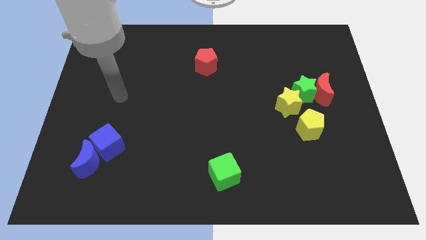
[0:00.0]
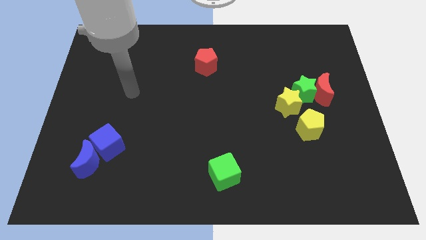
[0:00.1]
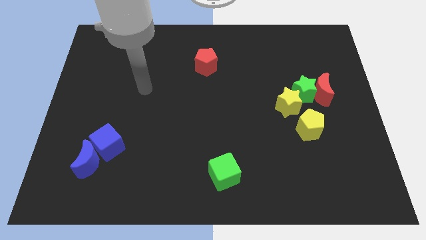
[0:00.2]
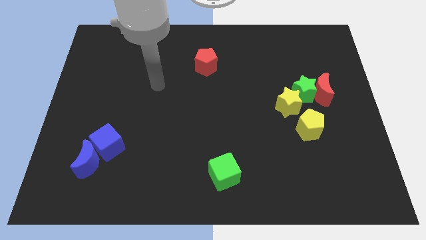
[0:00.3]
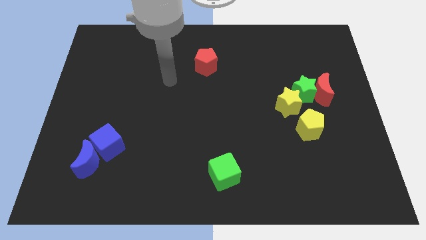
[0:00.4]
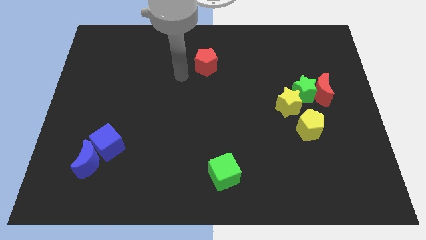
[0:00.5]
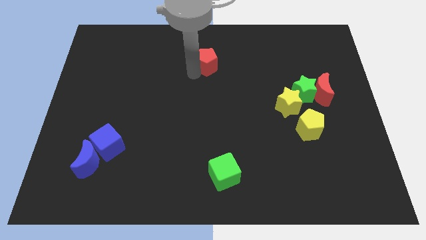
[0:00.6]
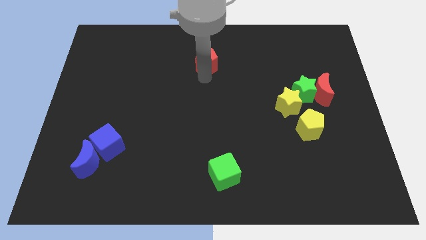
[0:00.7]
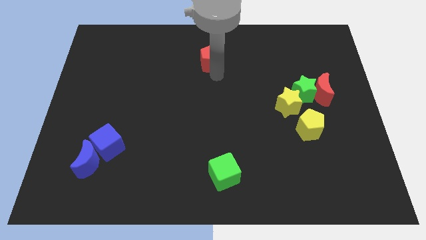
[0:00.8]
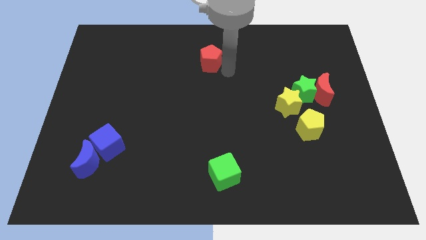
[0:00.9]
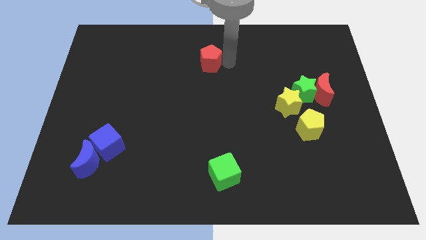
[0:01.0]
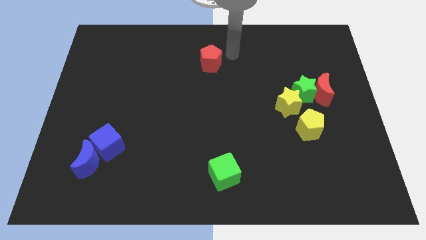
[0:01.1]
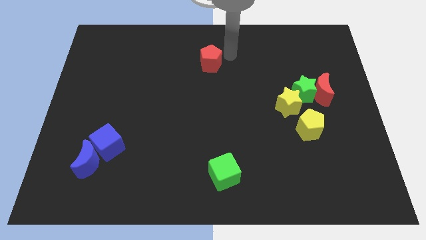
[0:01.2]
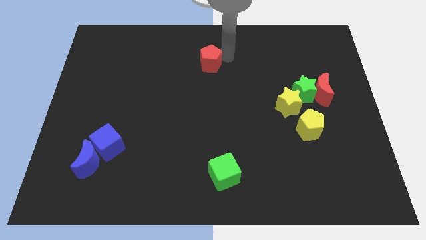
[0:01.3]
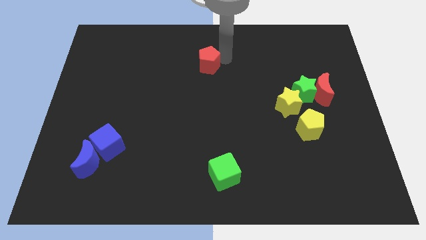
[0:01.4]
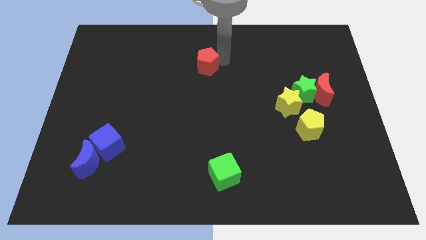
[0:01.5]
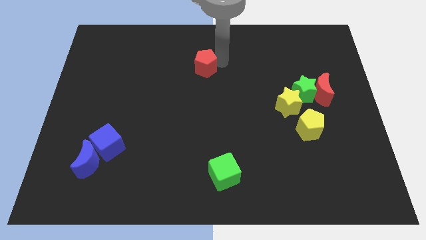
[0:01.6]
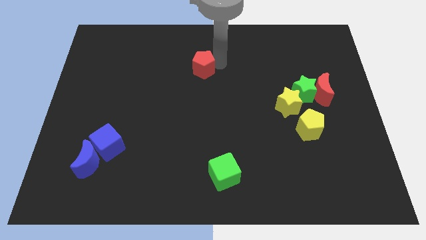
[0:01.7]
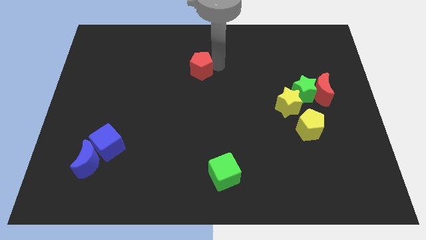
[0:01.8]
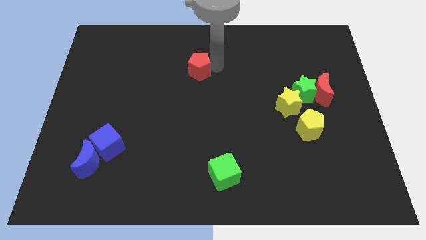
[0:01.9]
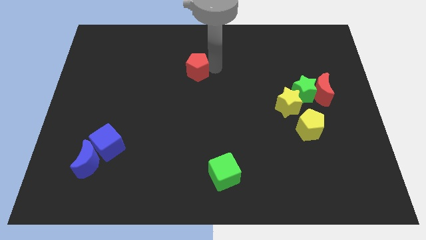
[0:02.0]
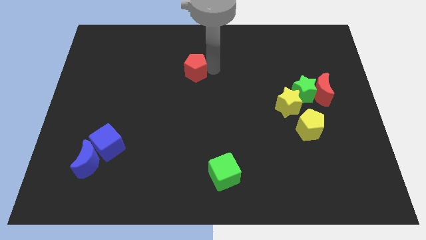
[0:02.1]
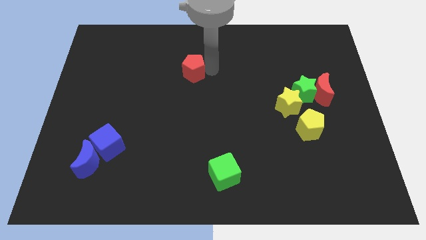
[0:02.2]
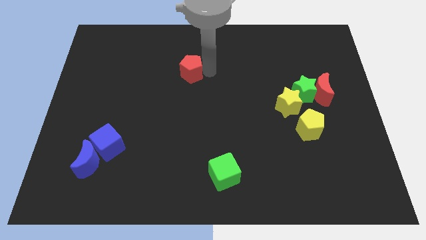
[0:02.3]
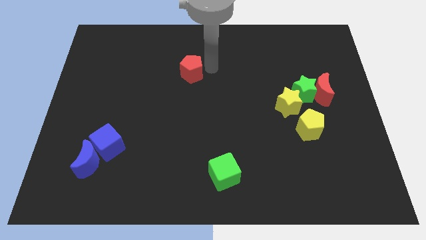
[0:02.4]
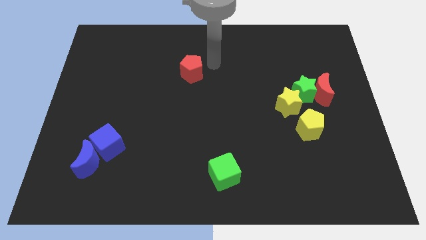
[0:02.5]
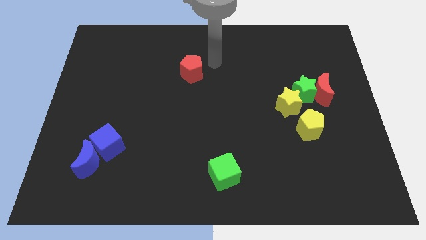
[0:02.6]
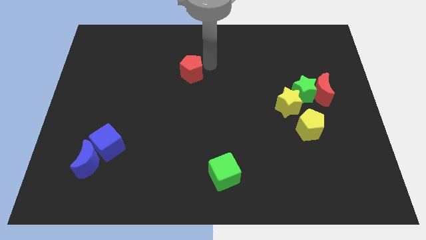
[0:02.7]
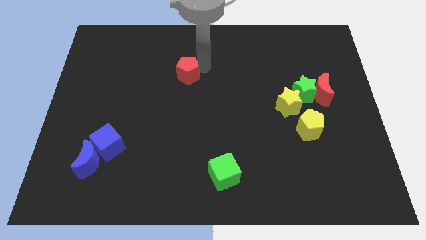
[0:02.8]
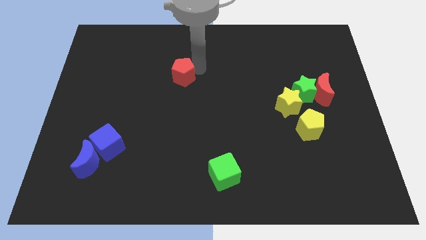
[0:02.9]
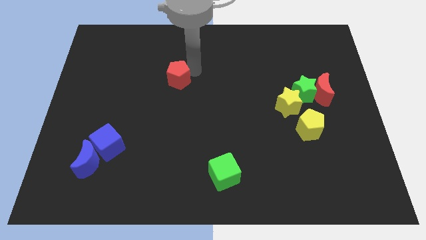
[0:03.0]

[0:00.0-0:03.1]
slightly move the red pentagon downwards and to the left diagonally

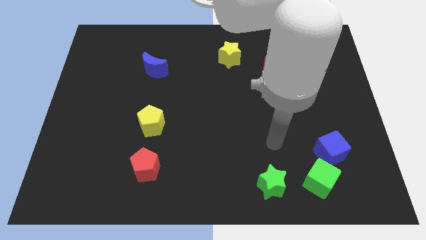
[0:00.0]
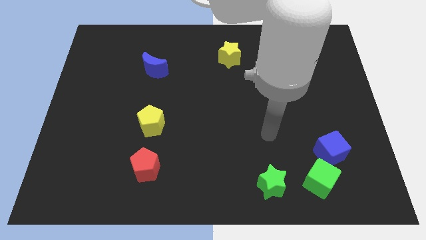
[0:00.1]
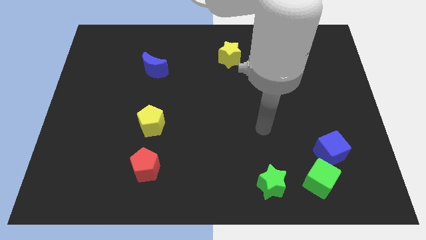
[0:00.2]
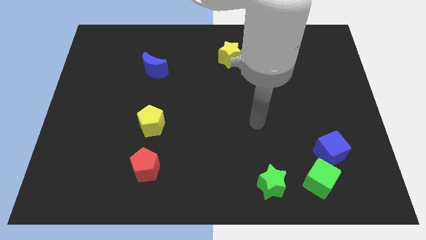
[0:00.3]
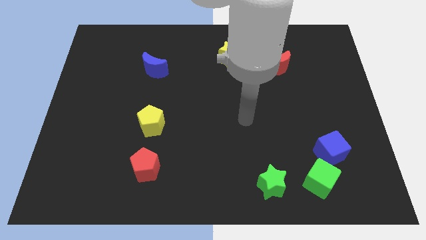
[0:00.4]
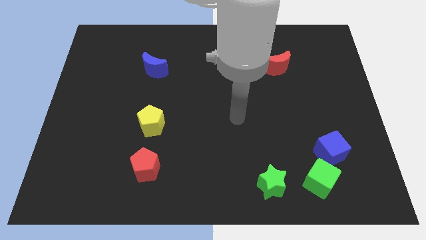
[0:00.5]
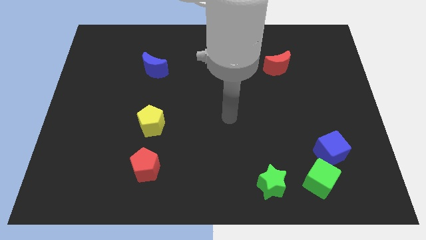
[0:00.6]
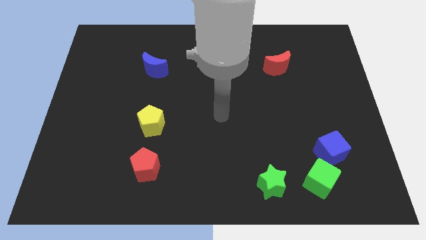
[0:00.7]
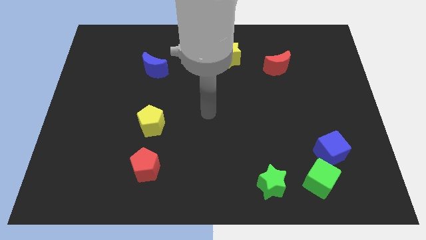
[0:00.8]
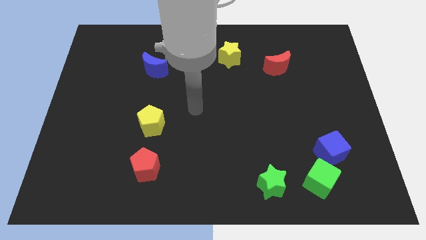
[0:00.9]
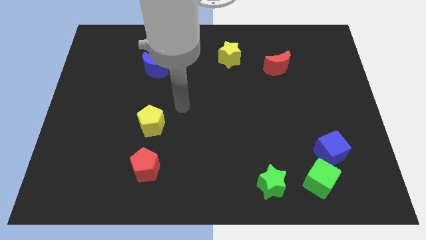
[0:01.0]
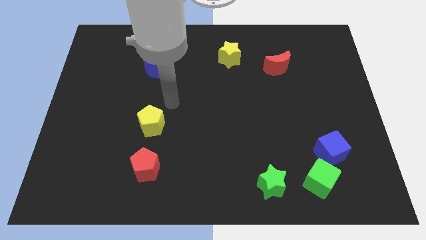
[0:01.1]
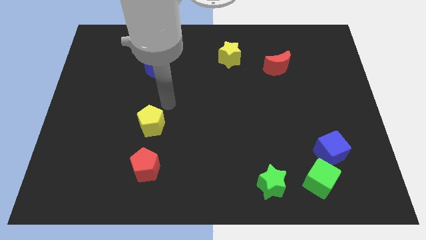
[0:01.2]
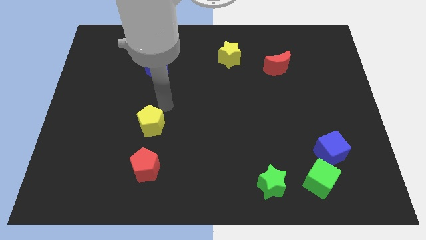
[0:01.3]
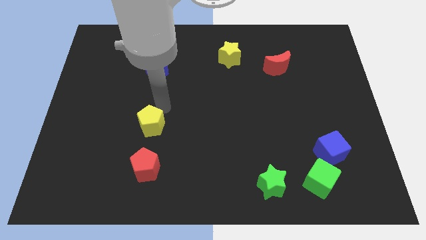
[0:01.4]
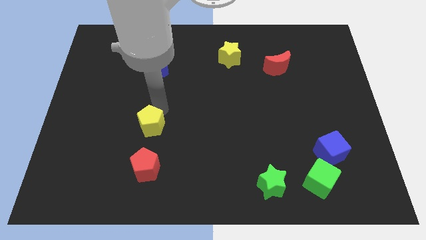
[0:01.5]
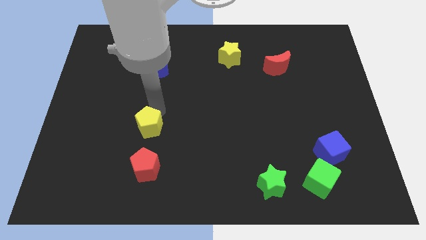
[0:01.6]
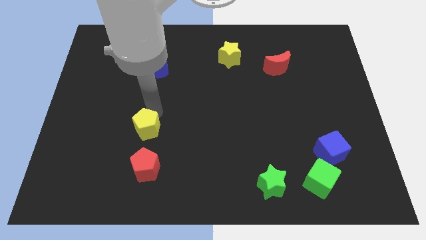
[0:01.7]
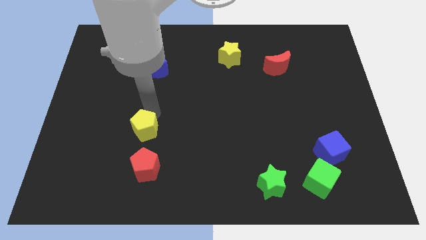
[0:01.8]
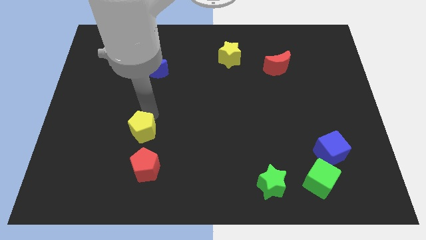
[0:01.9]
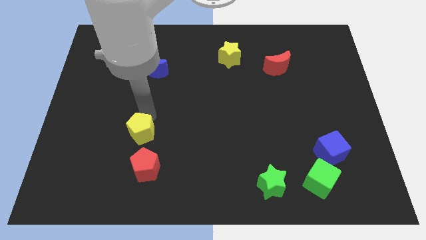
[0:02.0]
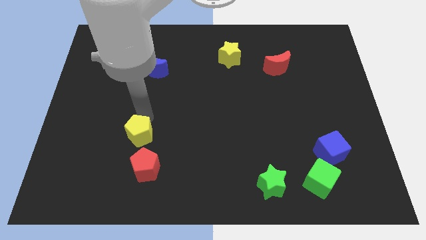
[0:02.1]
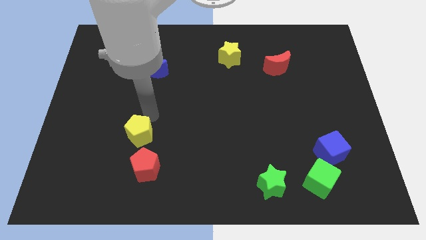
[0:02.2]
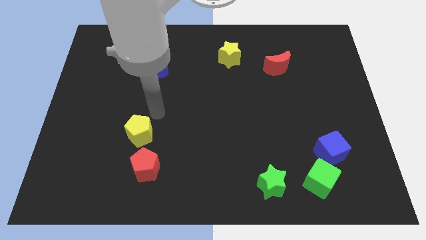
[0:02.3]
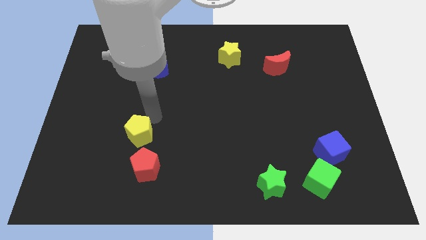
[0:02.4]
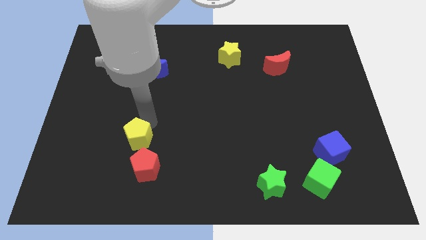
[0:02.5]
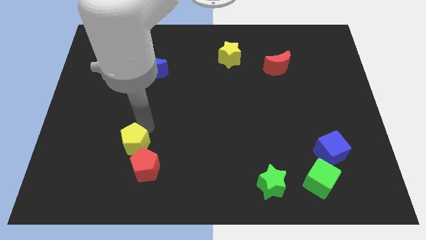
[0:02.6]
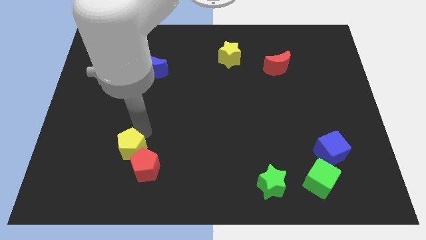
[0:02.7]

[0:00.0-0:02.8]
slide the yellow pentagon a bit diagonally down and left

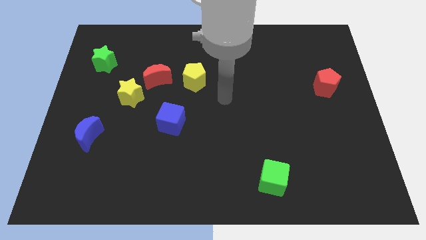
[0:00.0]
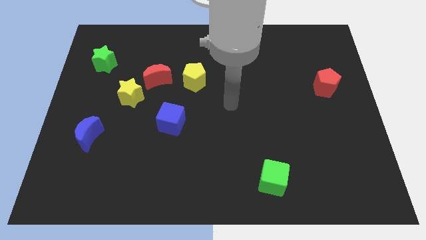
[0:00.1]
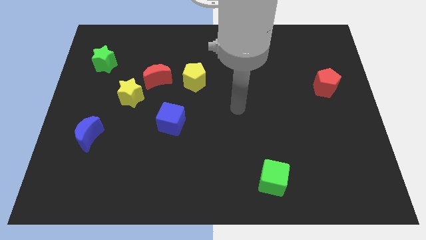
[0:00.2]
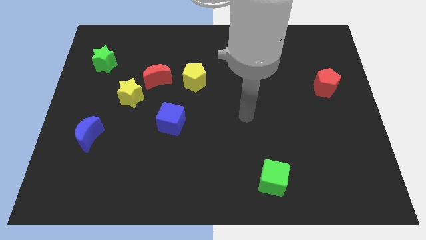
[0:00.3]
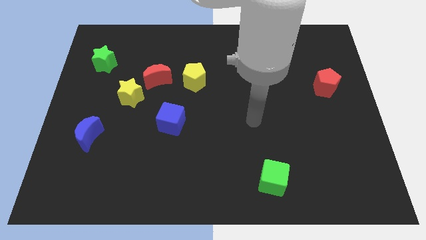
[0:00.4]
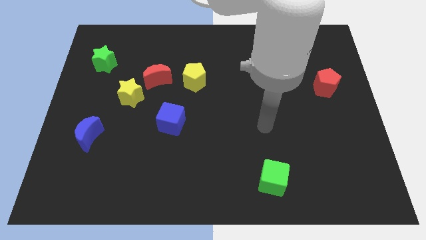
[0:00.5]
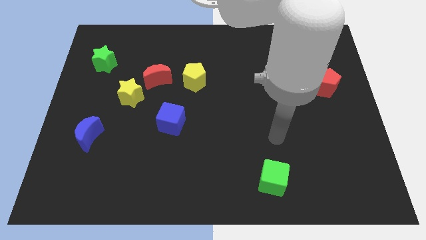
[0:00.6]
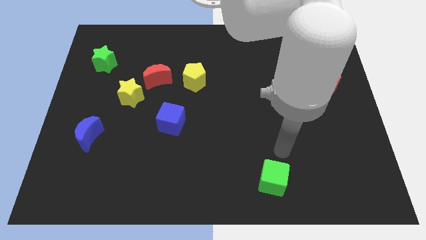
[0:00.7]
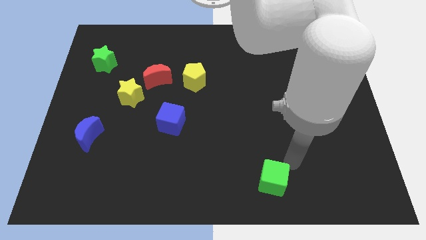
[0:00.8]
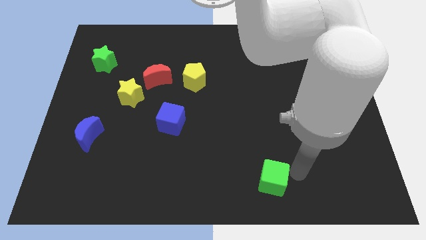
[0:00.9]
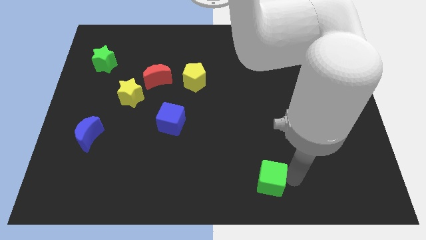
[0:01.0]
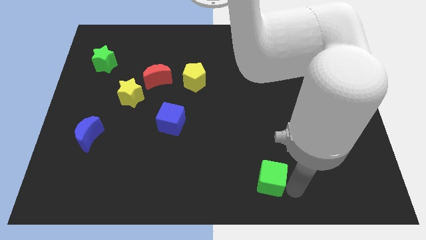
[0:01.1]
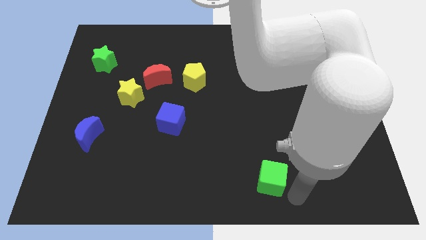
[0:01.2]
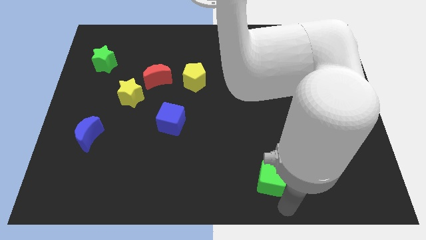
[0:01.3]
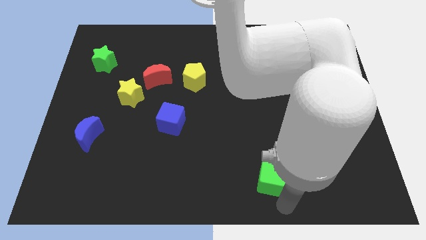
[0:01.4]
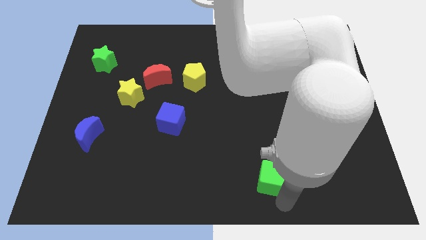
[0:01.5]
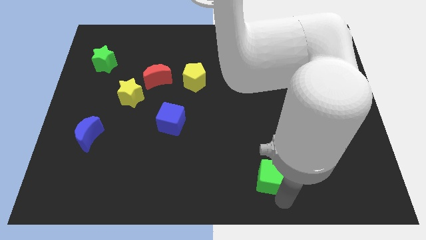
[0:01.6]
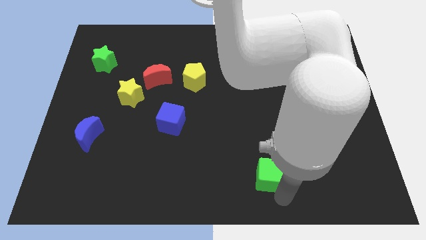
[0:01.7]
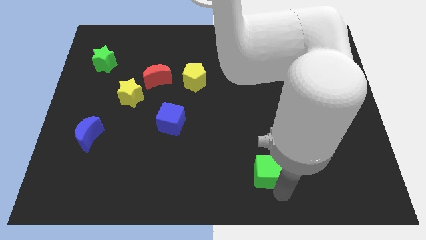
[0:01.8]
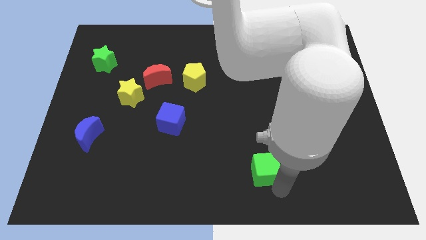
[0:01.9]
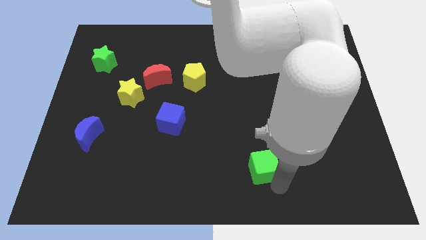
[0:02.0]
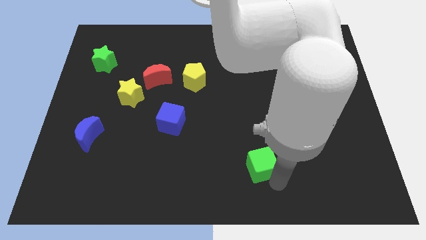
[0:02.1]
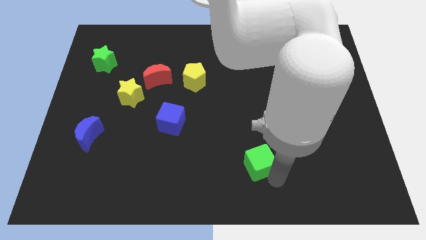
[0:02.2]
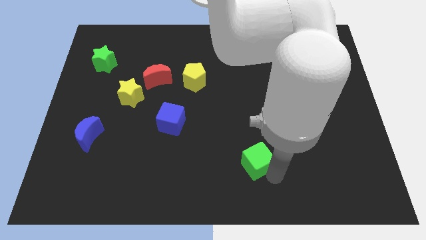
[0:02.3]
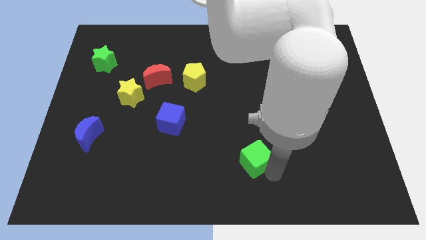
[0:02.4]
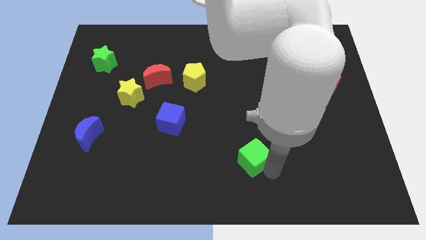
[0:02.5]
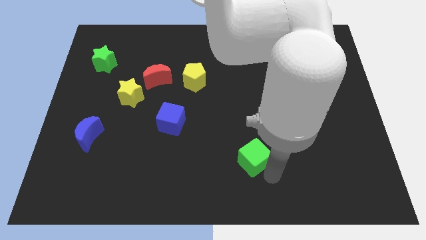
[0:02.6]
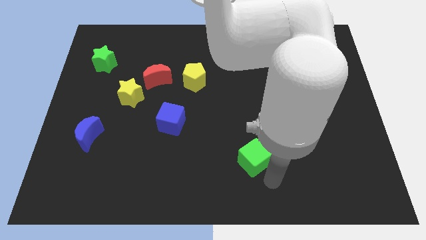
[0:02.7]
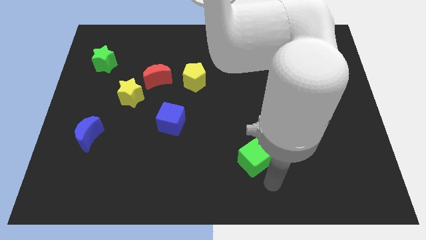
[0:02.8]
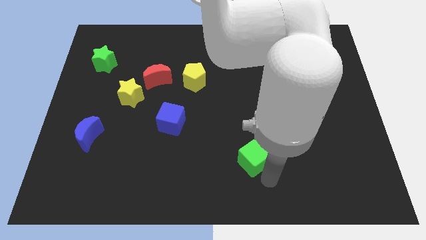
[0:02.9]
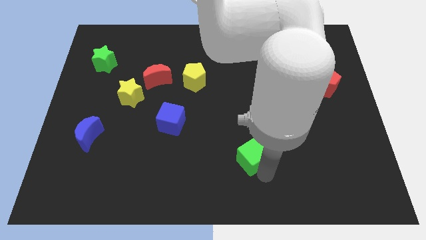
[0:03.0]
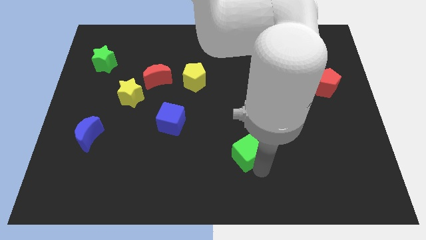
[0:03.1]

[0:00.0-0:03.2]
move the green cube diagonally upwards and to the left slightly
